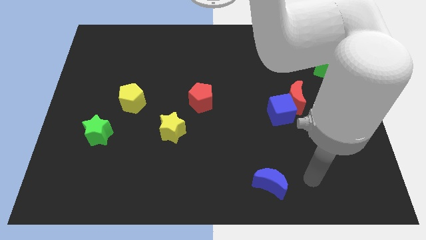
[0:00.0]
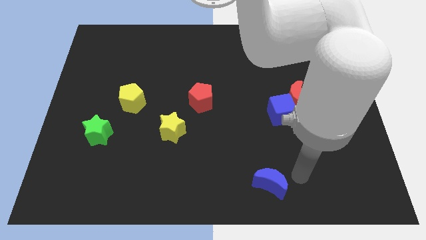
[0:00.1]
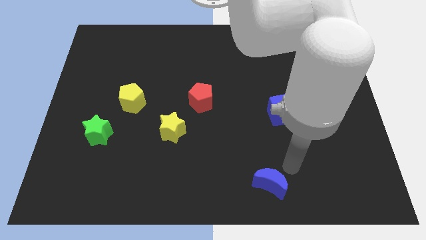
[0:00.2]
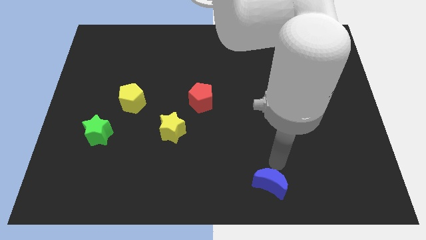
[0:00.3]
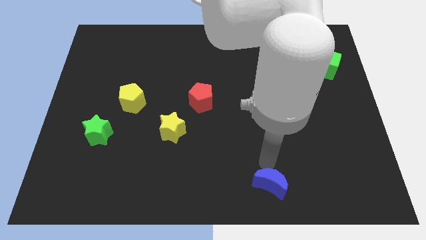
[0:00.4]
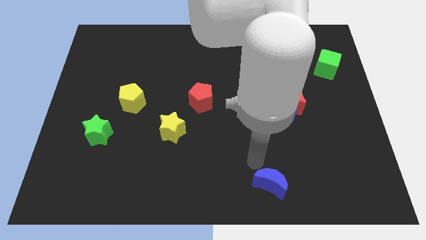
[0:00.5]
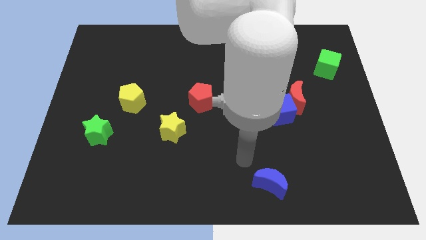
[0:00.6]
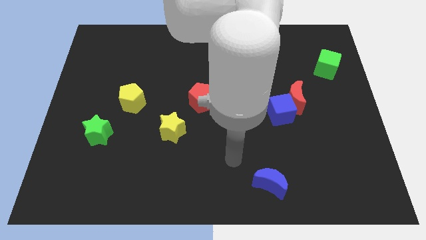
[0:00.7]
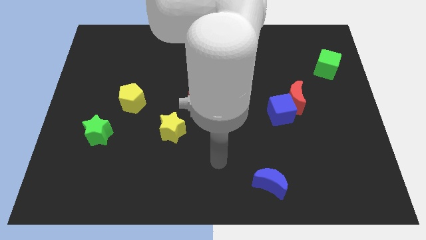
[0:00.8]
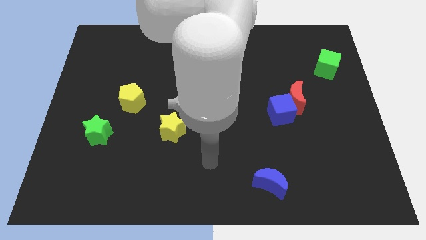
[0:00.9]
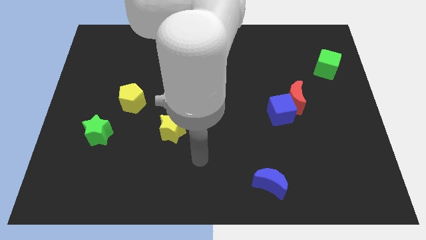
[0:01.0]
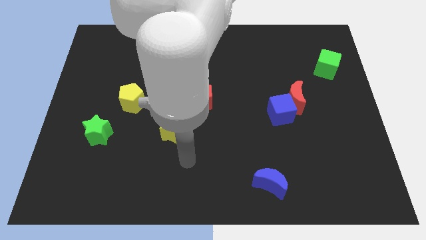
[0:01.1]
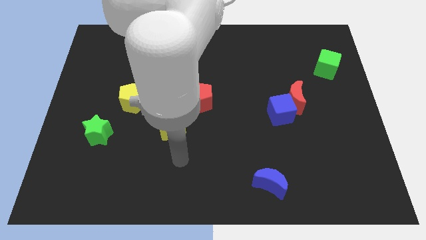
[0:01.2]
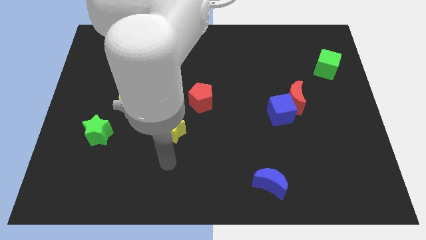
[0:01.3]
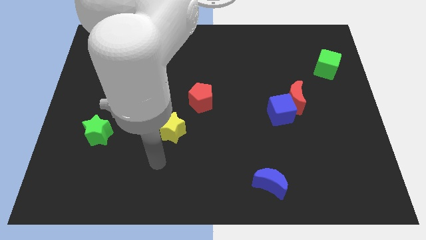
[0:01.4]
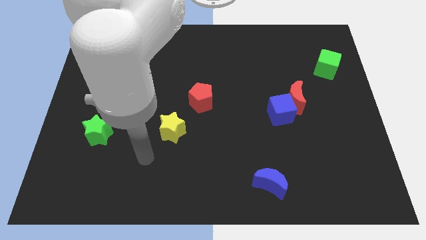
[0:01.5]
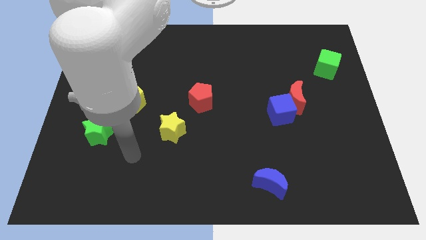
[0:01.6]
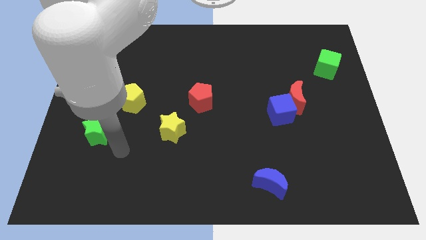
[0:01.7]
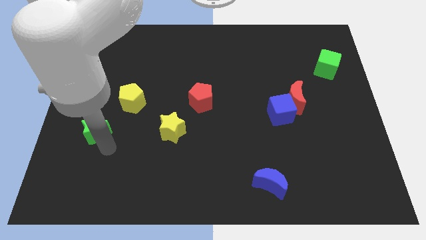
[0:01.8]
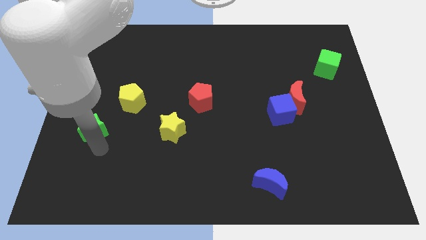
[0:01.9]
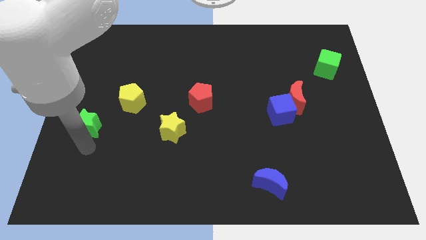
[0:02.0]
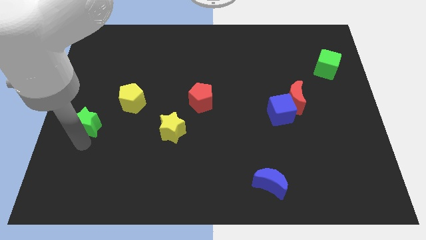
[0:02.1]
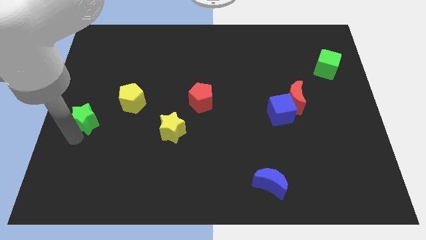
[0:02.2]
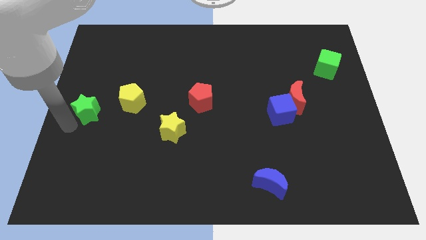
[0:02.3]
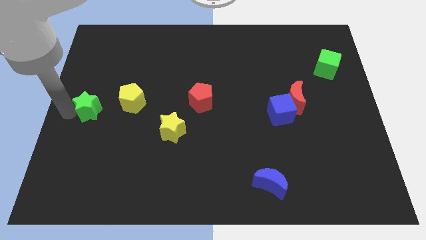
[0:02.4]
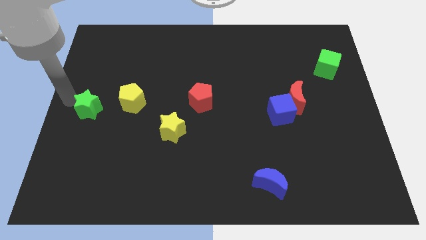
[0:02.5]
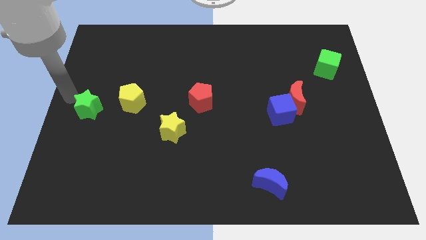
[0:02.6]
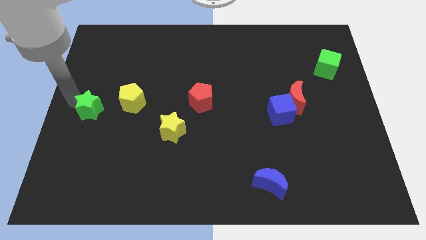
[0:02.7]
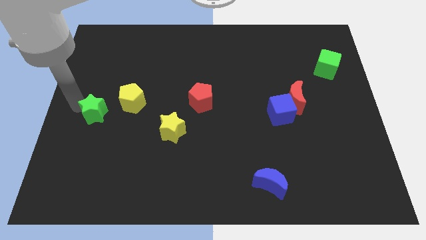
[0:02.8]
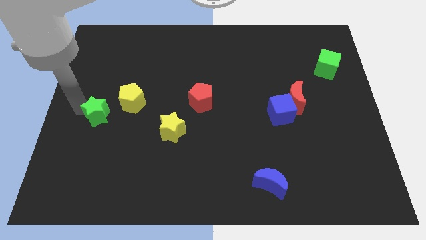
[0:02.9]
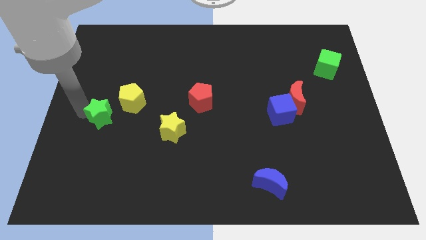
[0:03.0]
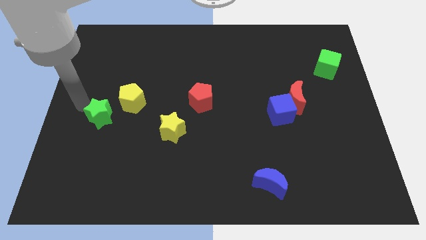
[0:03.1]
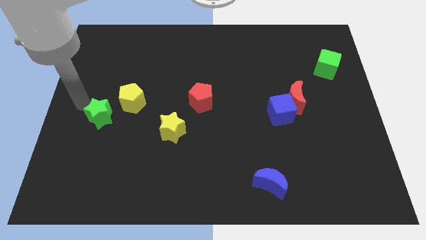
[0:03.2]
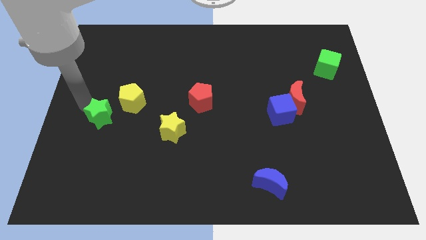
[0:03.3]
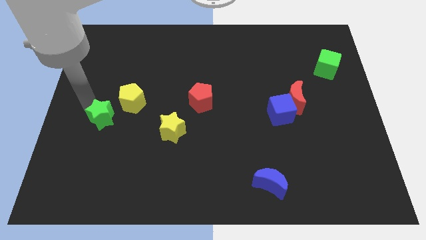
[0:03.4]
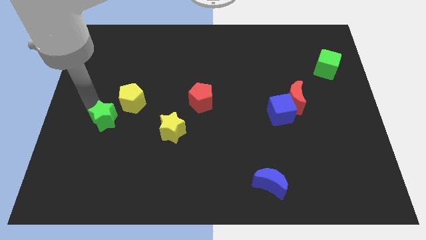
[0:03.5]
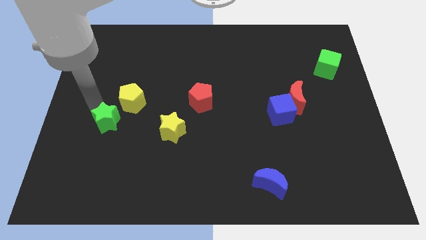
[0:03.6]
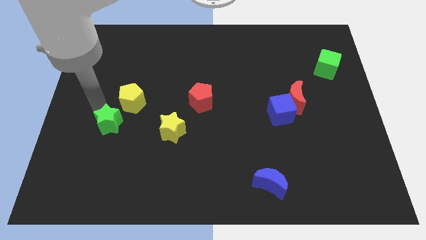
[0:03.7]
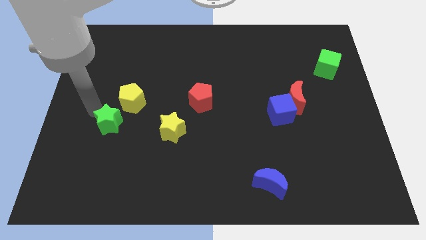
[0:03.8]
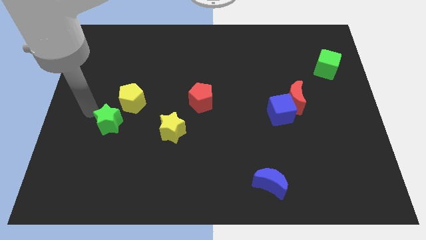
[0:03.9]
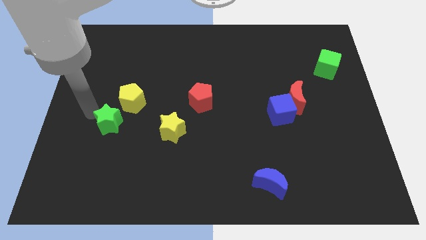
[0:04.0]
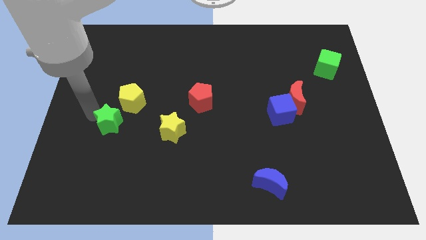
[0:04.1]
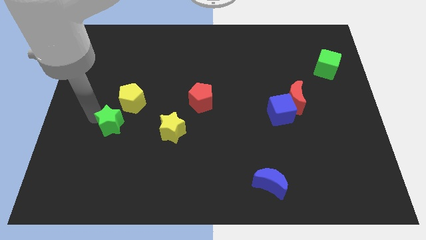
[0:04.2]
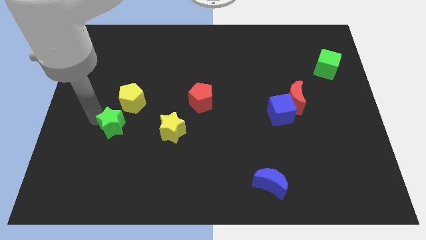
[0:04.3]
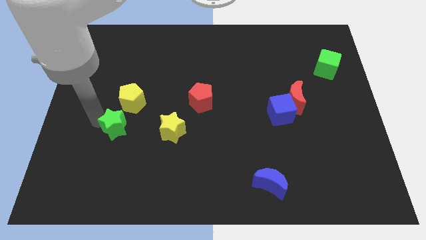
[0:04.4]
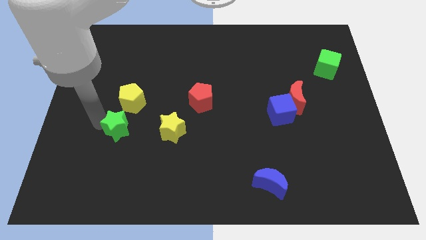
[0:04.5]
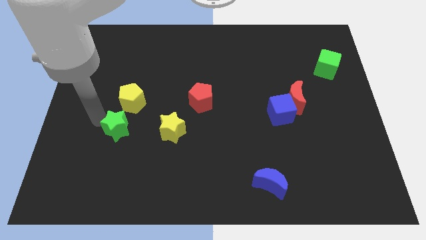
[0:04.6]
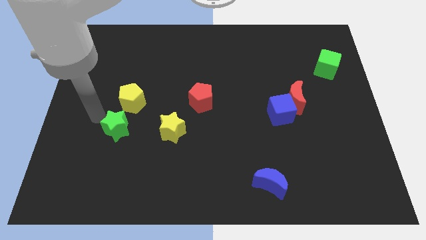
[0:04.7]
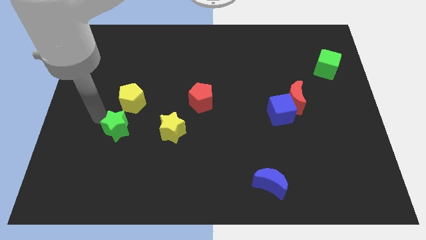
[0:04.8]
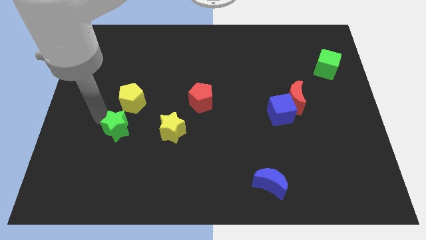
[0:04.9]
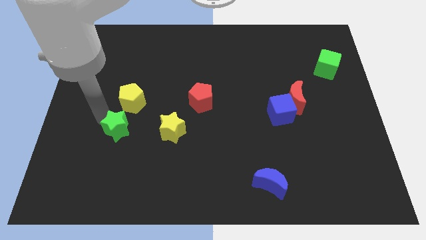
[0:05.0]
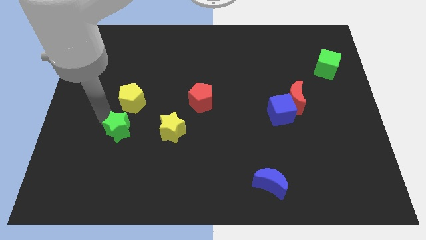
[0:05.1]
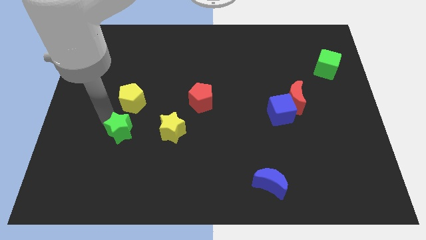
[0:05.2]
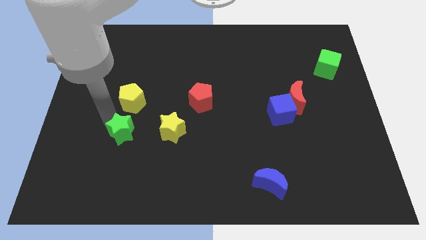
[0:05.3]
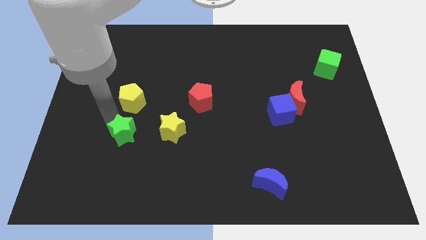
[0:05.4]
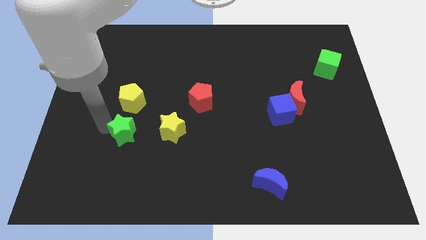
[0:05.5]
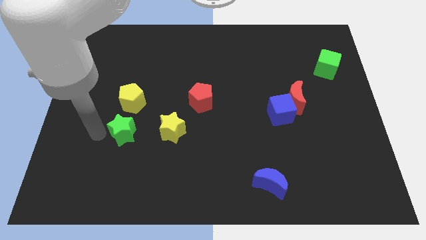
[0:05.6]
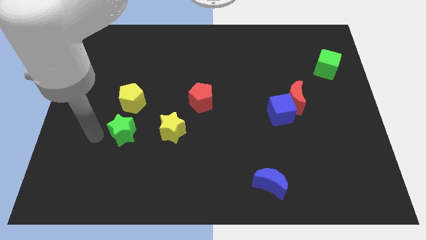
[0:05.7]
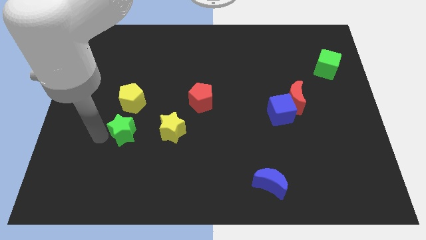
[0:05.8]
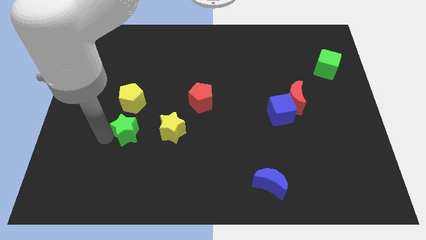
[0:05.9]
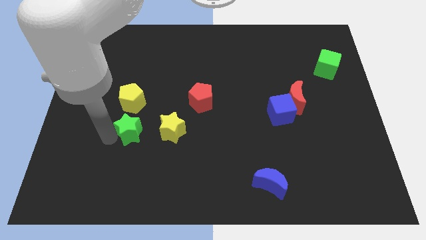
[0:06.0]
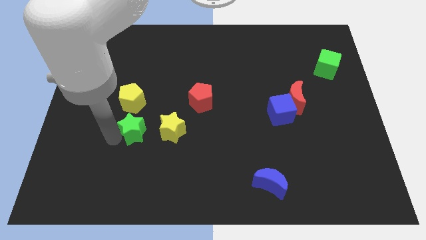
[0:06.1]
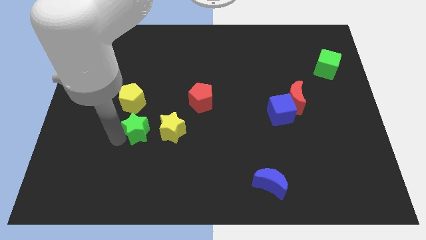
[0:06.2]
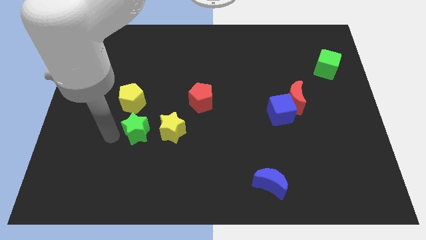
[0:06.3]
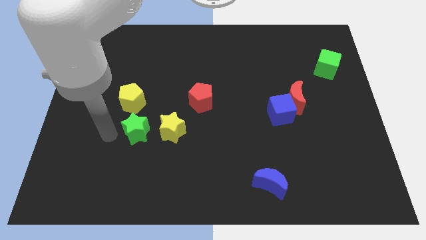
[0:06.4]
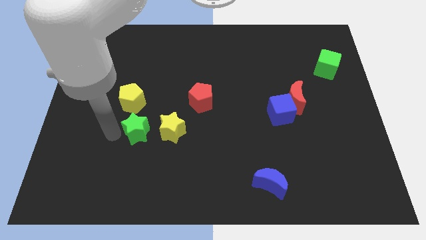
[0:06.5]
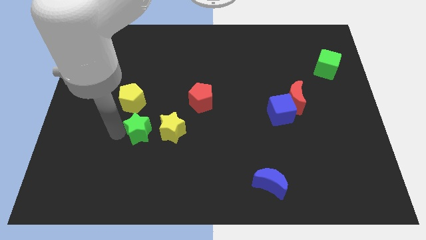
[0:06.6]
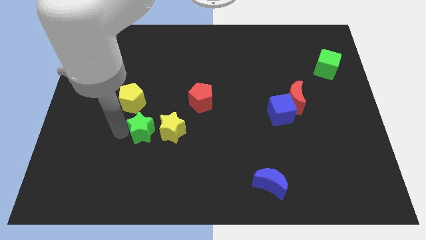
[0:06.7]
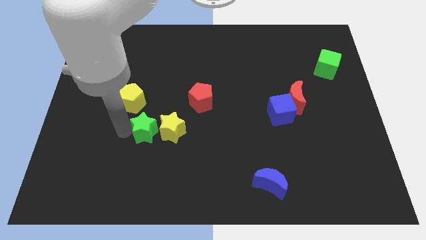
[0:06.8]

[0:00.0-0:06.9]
put the green star towards the yellow star
